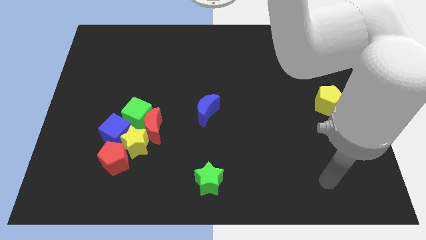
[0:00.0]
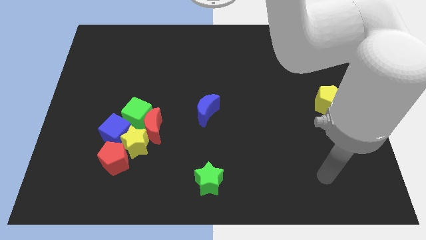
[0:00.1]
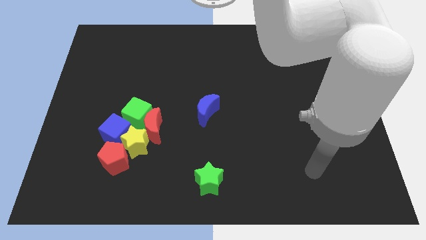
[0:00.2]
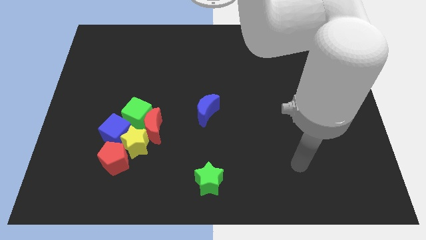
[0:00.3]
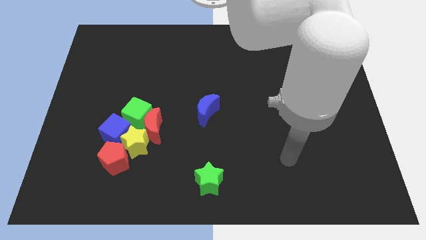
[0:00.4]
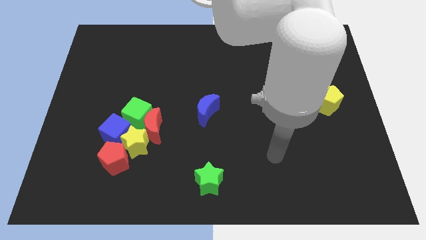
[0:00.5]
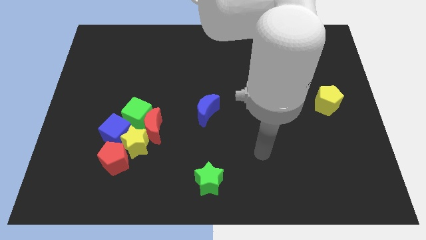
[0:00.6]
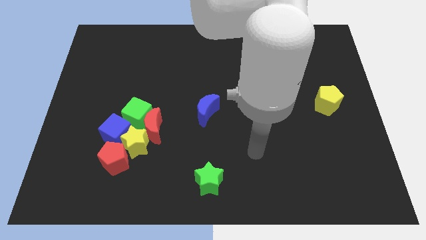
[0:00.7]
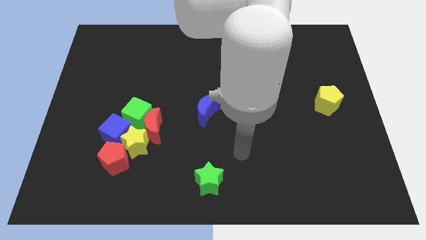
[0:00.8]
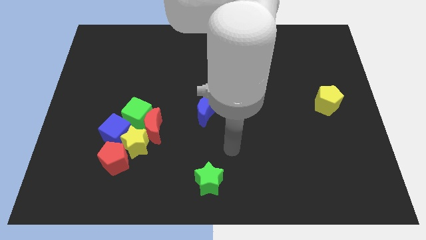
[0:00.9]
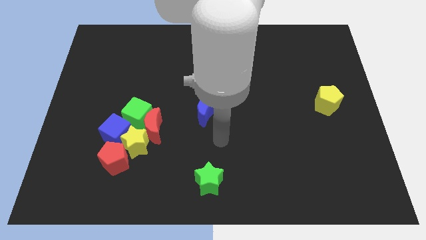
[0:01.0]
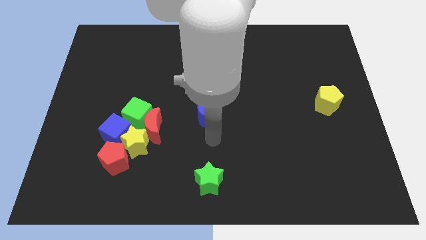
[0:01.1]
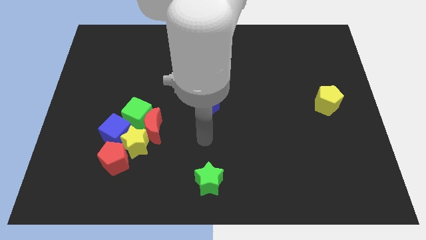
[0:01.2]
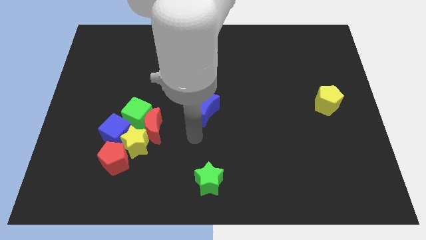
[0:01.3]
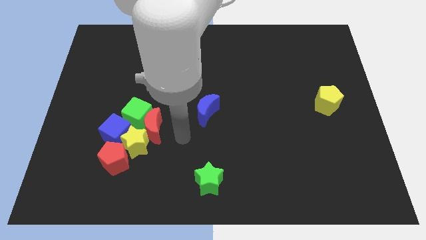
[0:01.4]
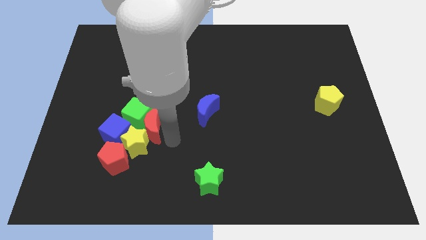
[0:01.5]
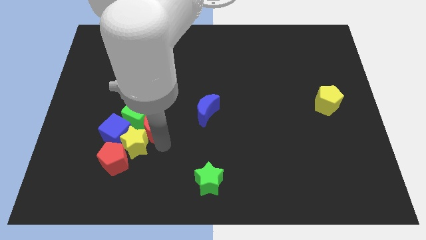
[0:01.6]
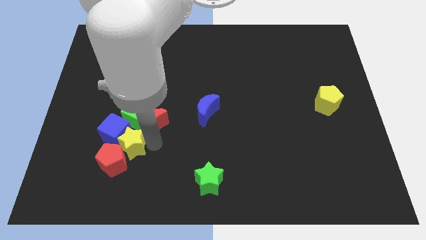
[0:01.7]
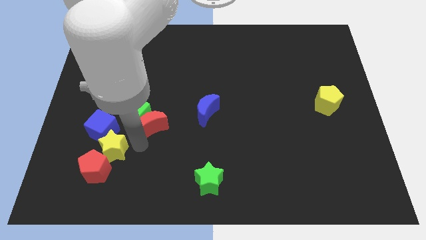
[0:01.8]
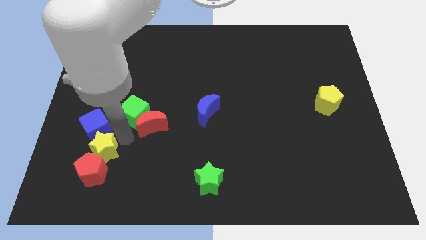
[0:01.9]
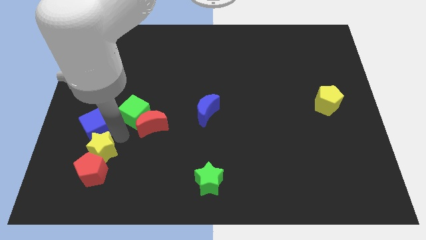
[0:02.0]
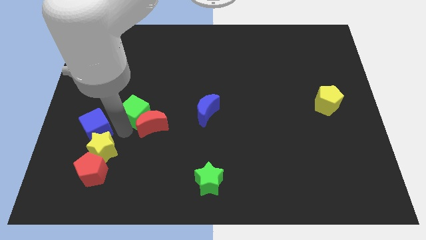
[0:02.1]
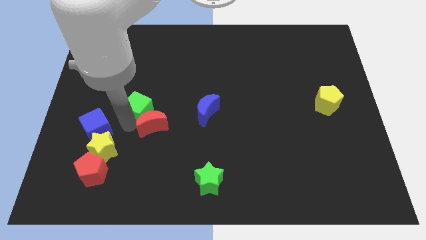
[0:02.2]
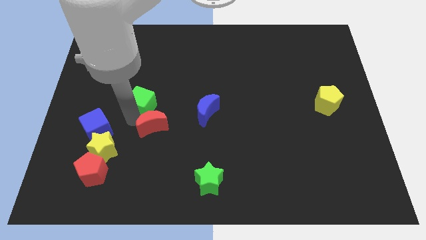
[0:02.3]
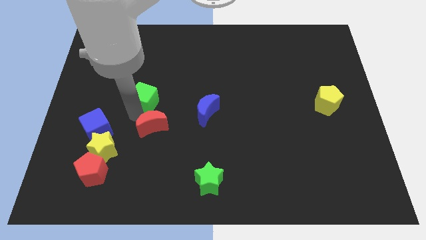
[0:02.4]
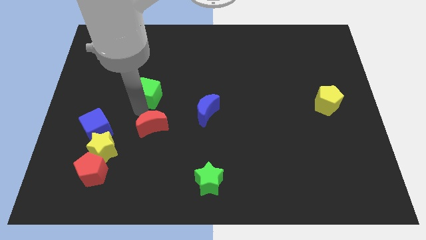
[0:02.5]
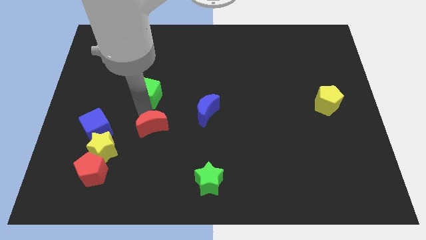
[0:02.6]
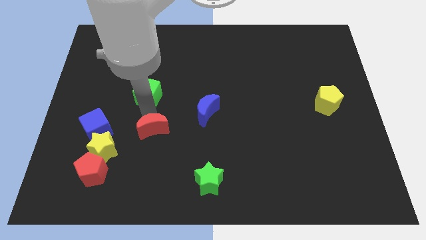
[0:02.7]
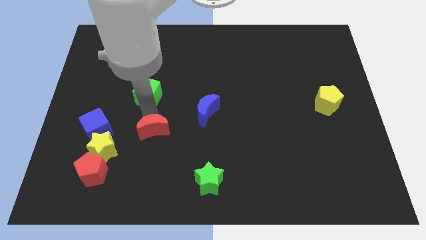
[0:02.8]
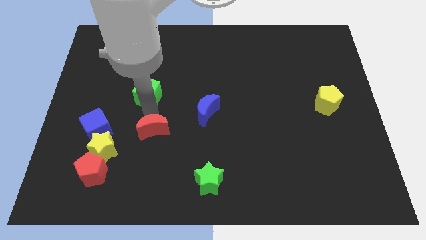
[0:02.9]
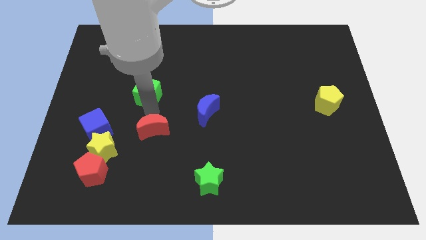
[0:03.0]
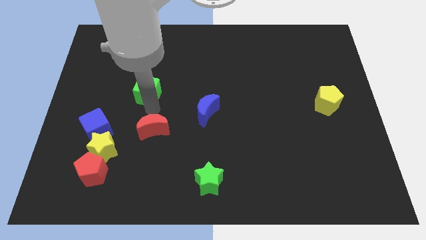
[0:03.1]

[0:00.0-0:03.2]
push the green cube upwards a little

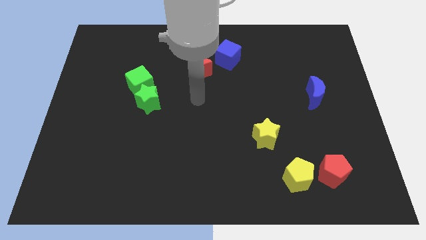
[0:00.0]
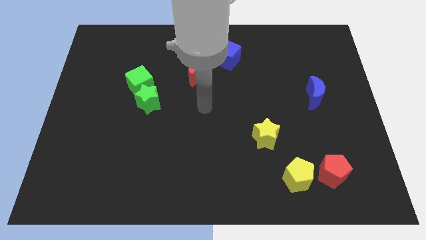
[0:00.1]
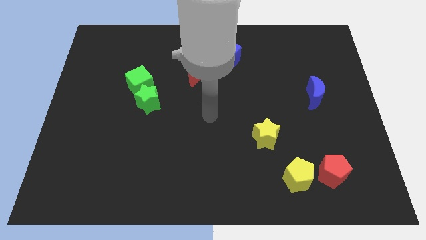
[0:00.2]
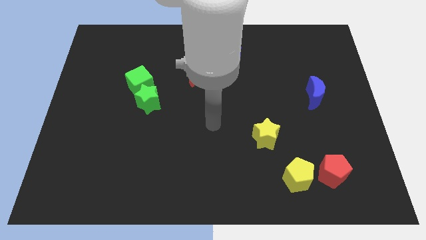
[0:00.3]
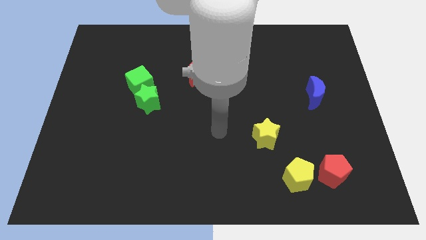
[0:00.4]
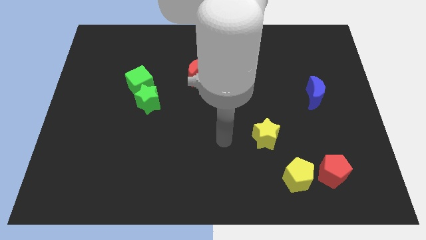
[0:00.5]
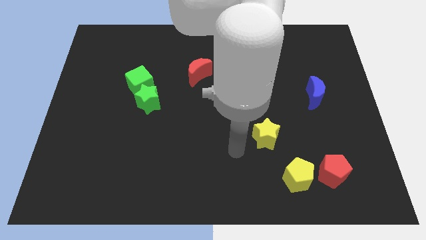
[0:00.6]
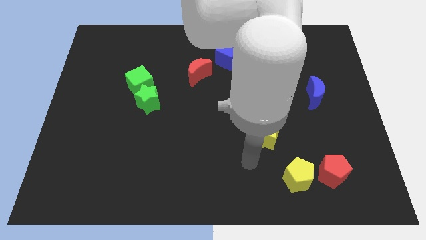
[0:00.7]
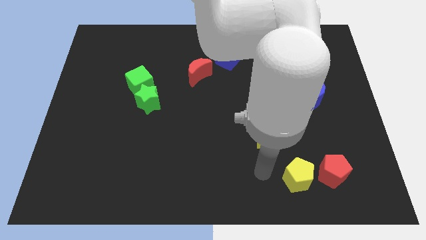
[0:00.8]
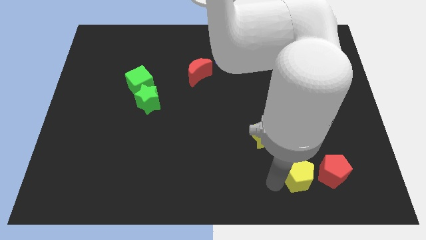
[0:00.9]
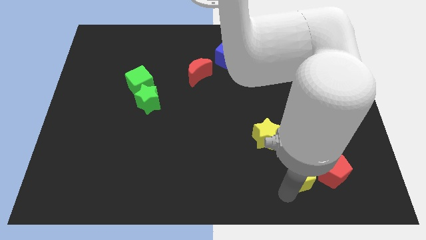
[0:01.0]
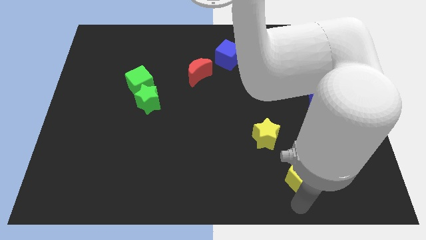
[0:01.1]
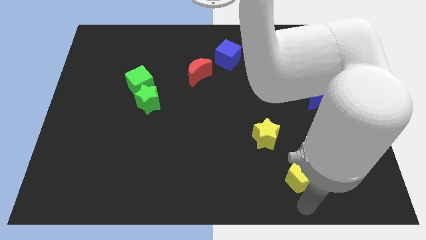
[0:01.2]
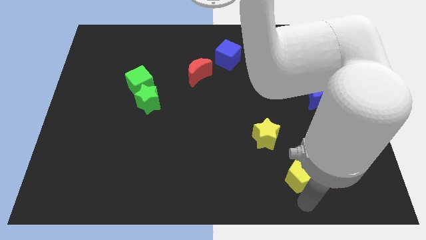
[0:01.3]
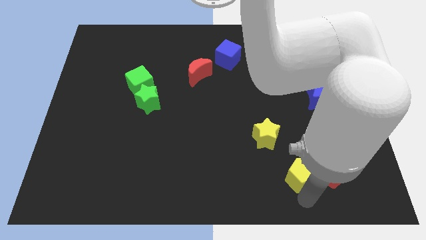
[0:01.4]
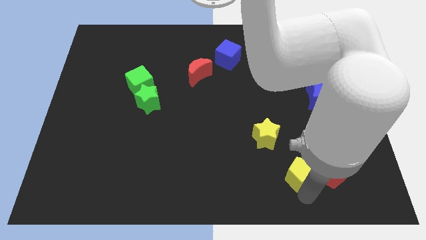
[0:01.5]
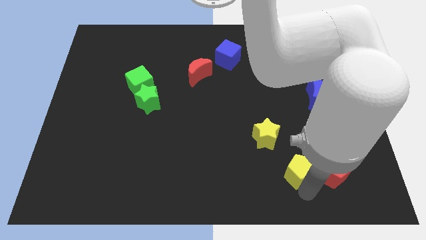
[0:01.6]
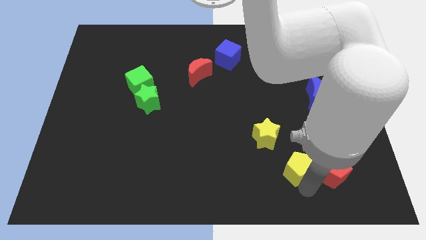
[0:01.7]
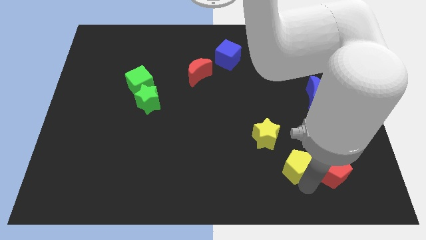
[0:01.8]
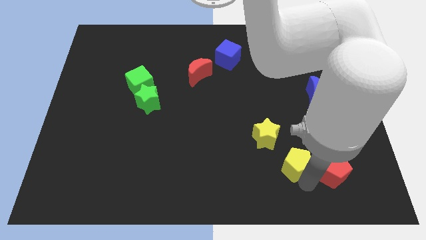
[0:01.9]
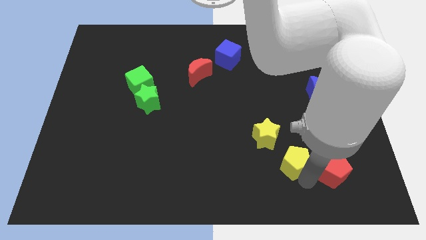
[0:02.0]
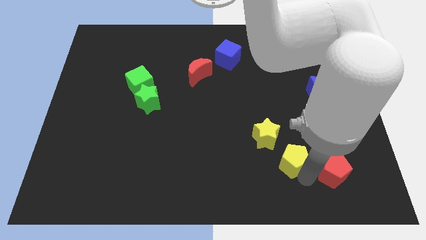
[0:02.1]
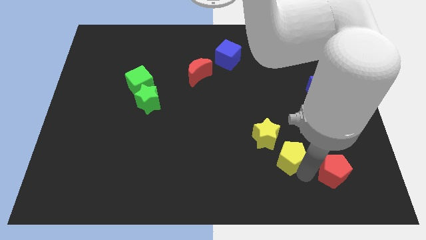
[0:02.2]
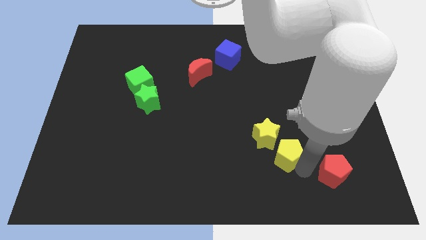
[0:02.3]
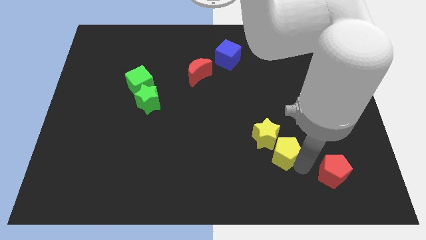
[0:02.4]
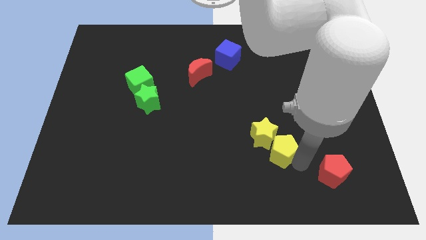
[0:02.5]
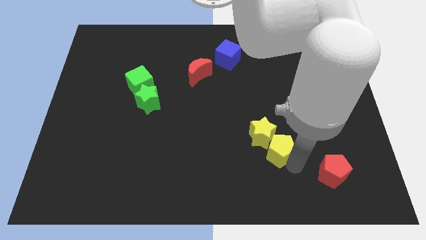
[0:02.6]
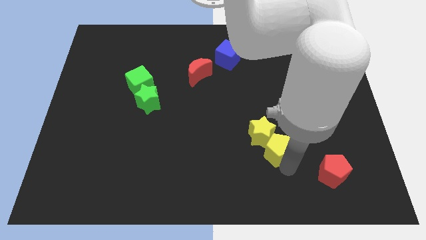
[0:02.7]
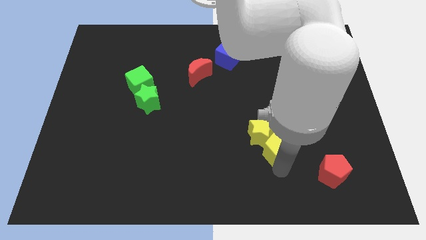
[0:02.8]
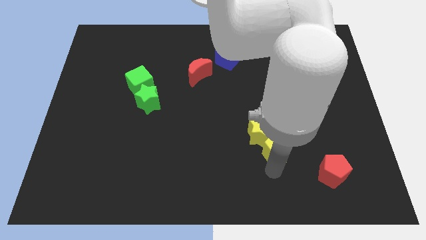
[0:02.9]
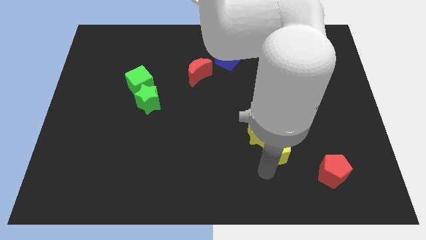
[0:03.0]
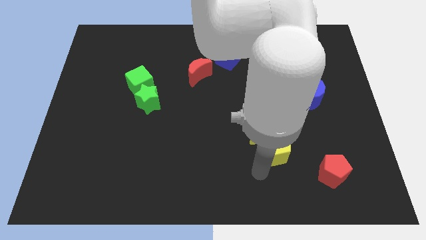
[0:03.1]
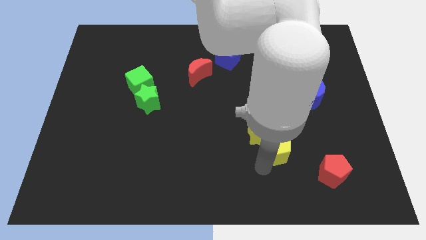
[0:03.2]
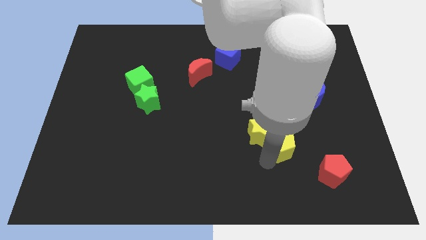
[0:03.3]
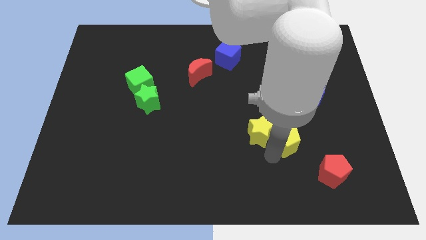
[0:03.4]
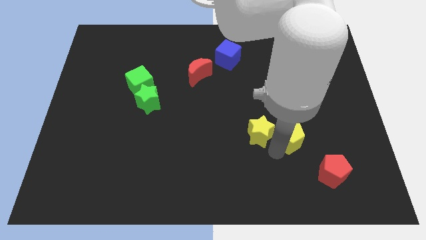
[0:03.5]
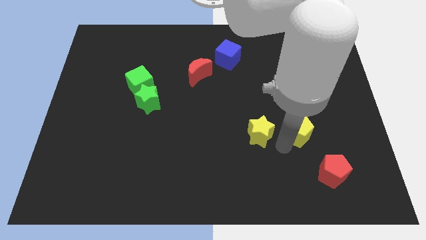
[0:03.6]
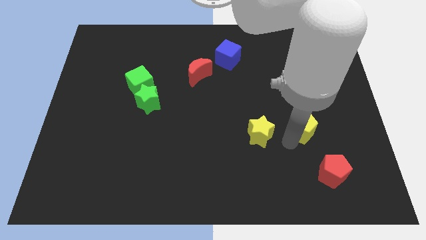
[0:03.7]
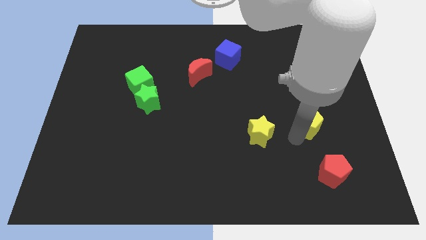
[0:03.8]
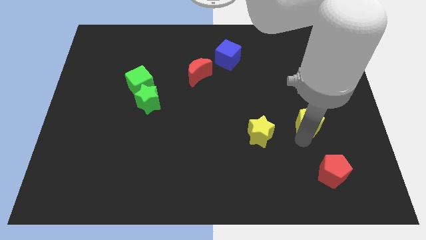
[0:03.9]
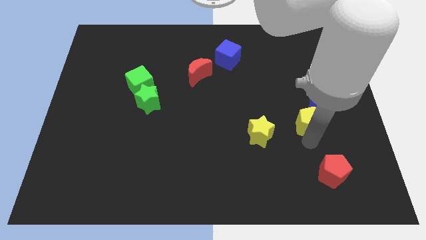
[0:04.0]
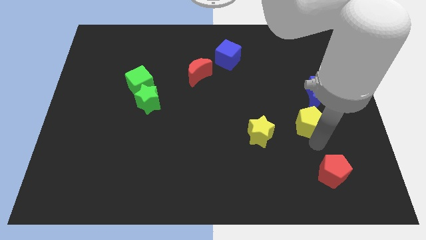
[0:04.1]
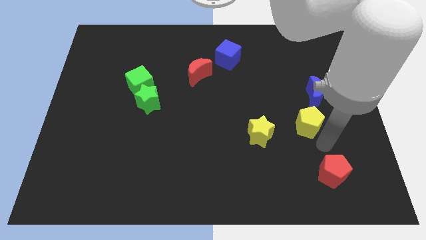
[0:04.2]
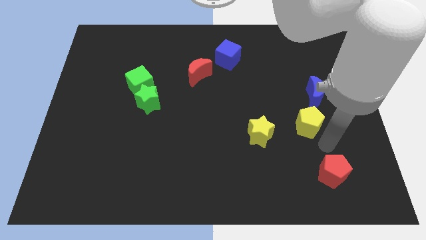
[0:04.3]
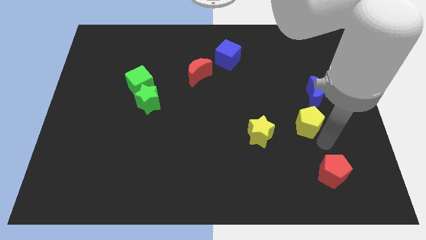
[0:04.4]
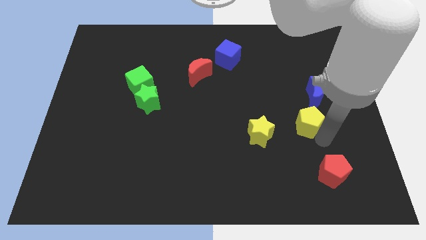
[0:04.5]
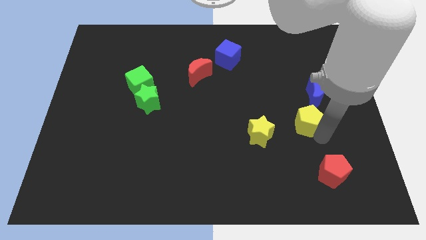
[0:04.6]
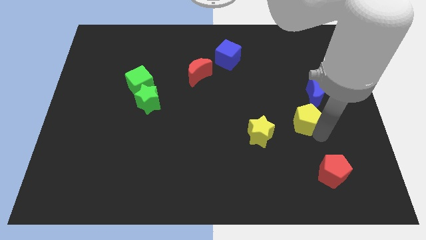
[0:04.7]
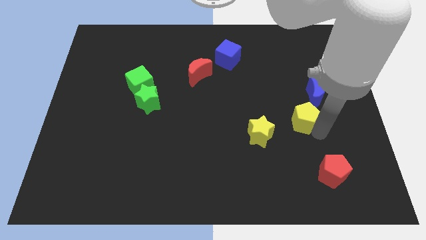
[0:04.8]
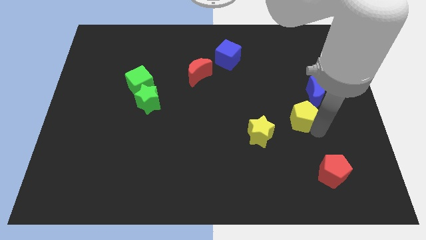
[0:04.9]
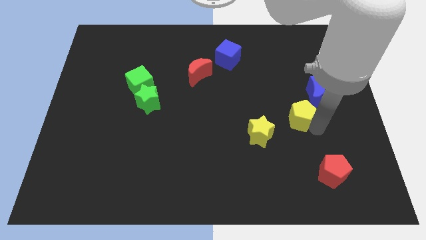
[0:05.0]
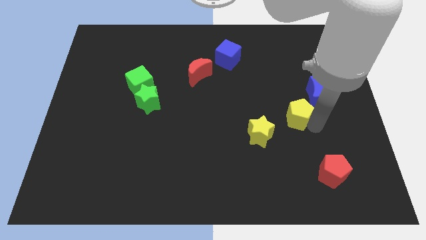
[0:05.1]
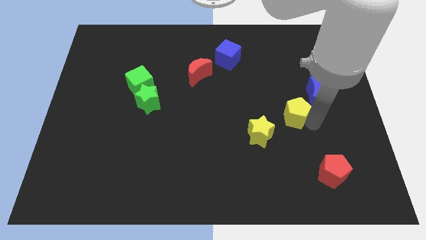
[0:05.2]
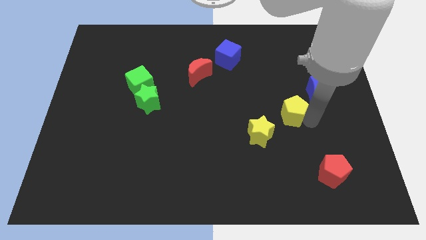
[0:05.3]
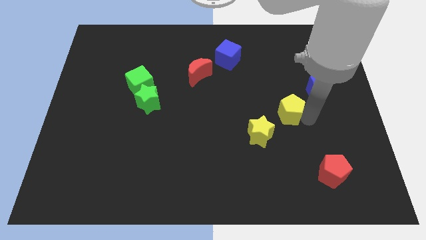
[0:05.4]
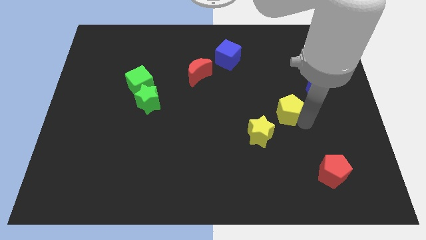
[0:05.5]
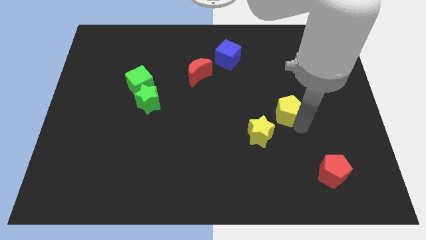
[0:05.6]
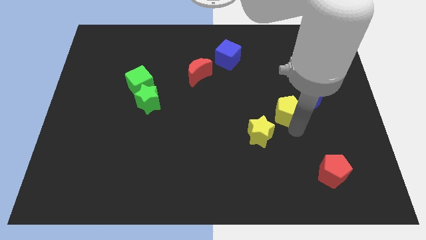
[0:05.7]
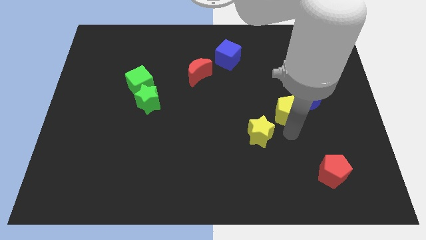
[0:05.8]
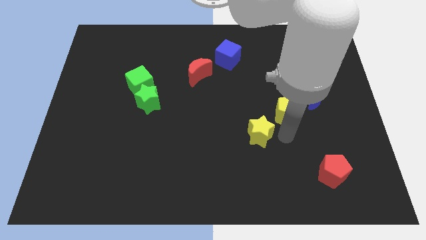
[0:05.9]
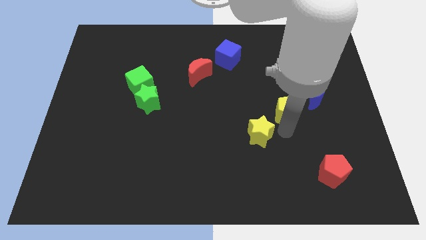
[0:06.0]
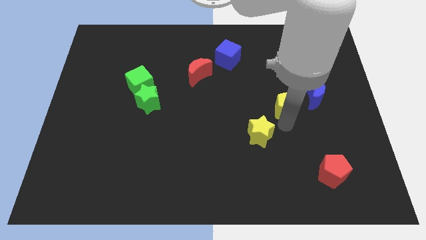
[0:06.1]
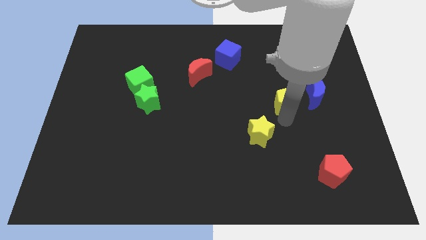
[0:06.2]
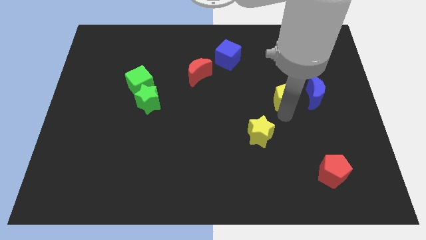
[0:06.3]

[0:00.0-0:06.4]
slide the yellow pentagon up
